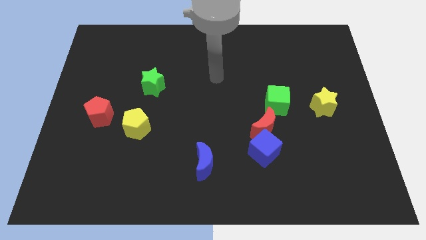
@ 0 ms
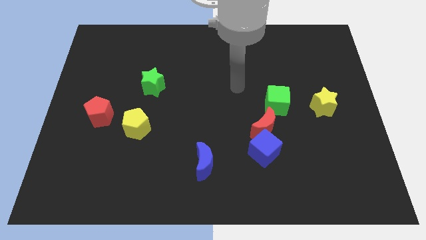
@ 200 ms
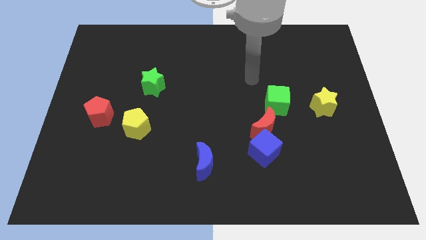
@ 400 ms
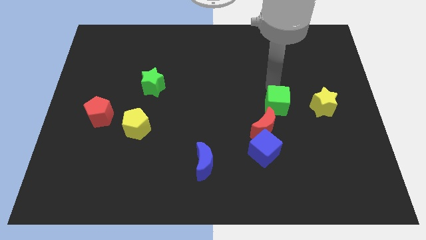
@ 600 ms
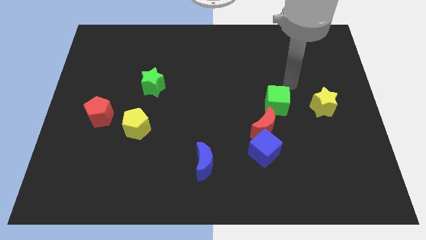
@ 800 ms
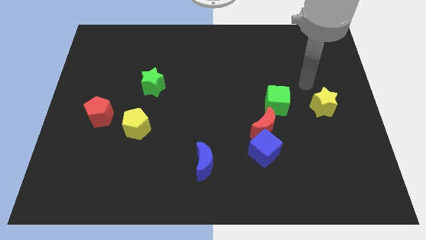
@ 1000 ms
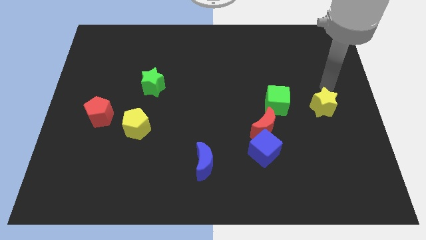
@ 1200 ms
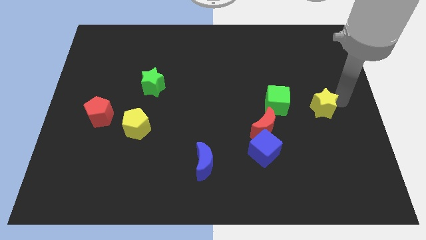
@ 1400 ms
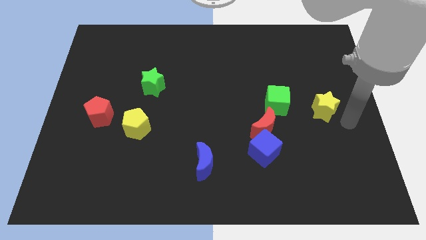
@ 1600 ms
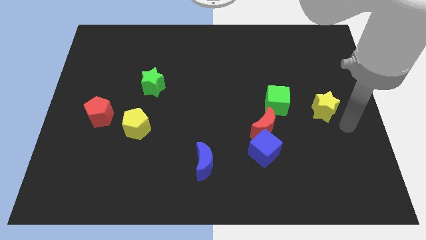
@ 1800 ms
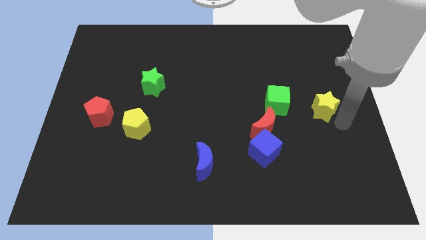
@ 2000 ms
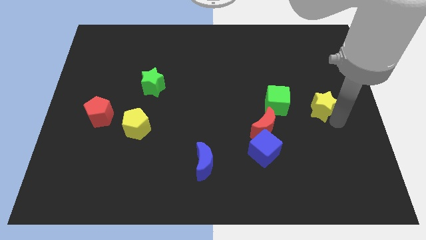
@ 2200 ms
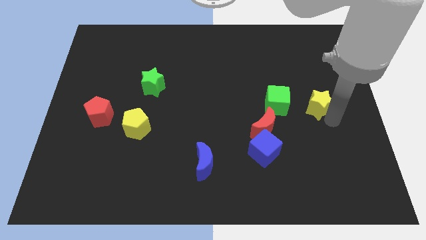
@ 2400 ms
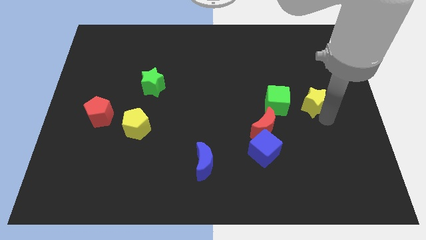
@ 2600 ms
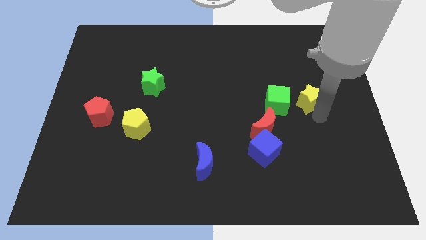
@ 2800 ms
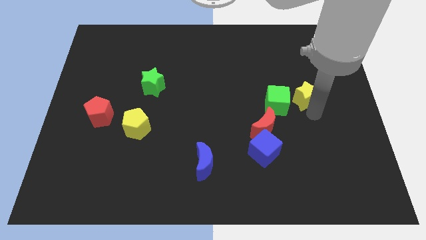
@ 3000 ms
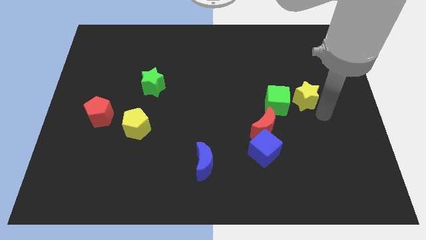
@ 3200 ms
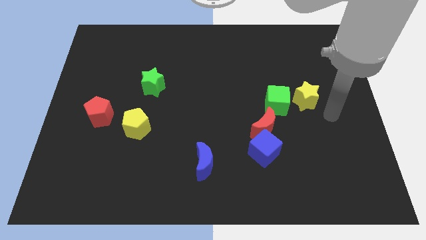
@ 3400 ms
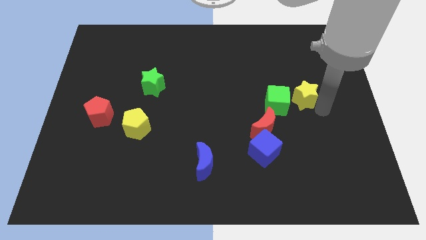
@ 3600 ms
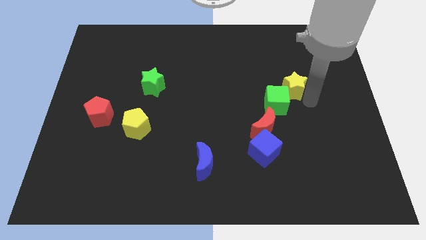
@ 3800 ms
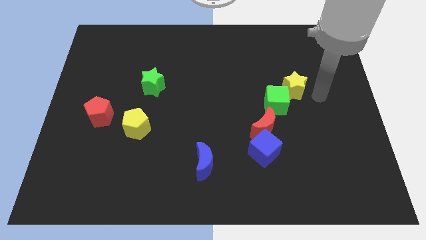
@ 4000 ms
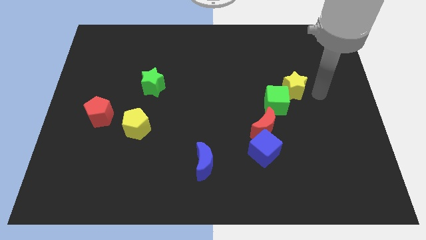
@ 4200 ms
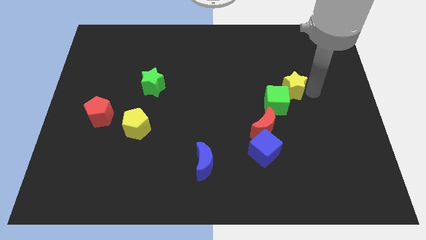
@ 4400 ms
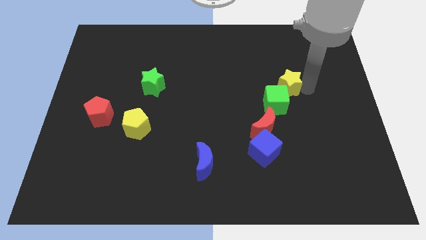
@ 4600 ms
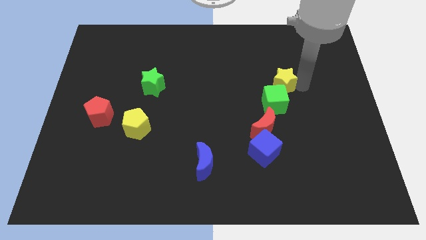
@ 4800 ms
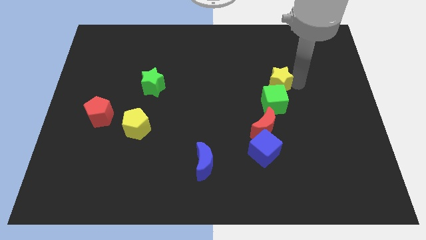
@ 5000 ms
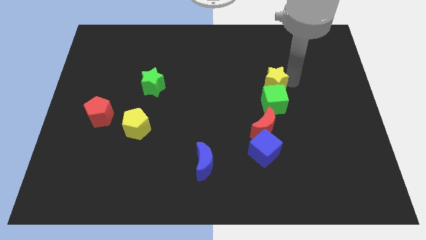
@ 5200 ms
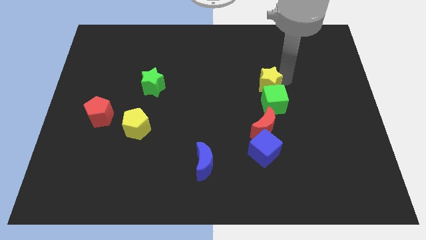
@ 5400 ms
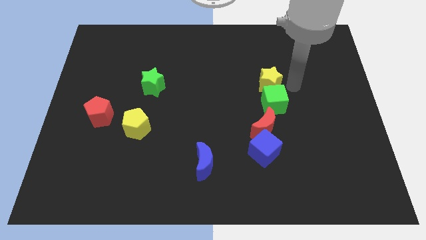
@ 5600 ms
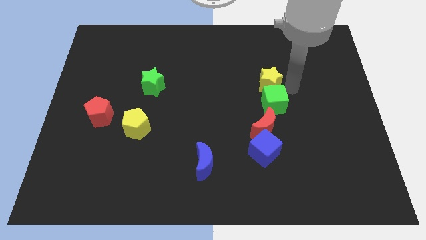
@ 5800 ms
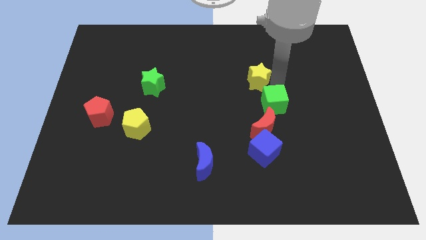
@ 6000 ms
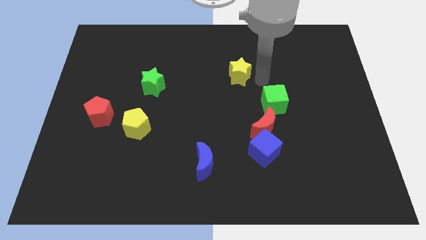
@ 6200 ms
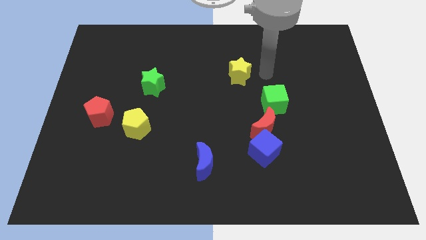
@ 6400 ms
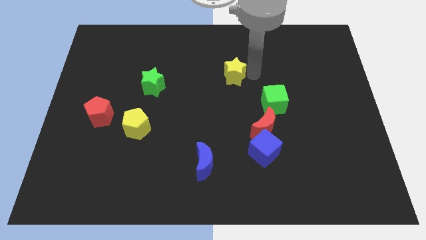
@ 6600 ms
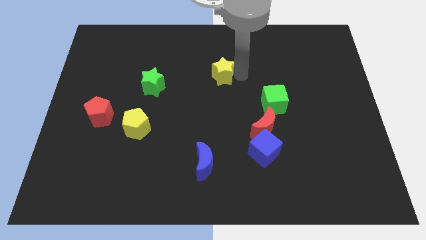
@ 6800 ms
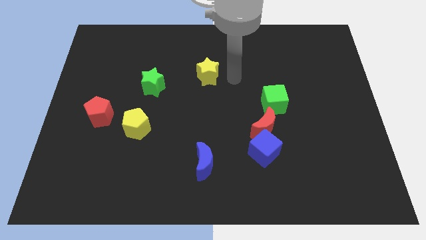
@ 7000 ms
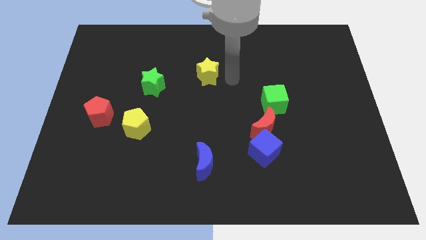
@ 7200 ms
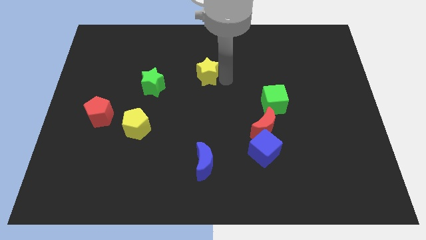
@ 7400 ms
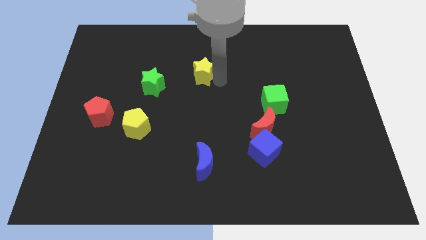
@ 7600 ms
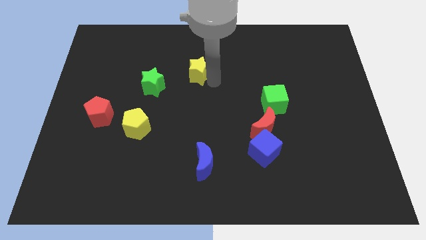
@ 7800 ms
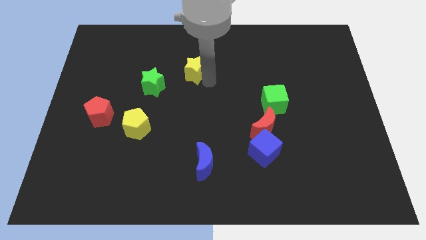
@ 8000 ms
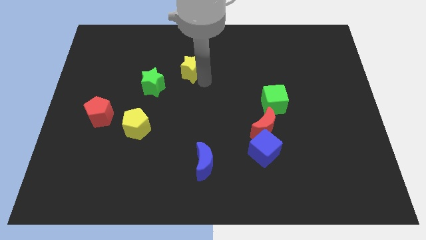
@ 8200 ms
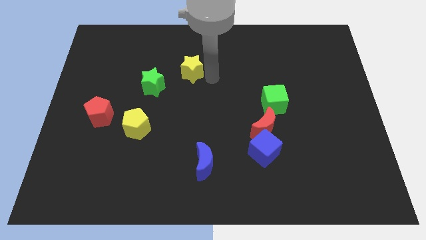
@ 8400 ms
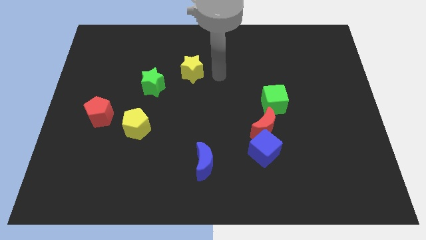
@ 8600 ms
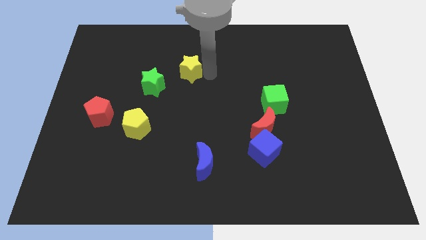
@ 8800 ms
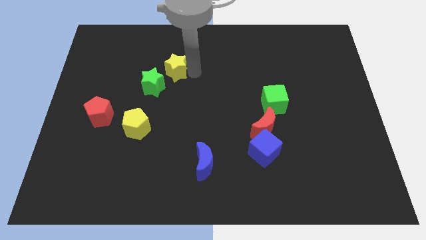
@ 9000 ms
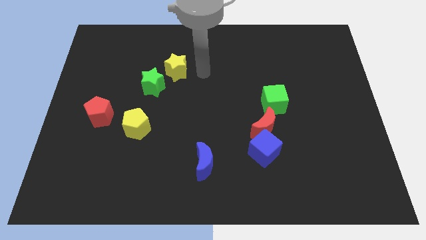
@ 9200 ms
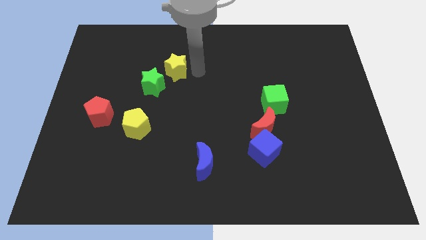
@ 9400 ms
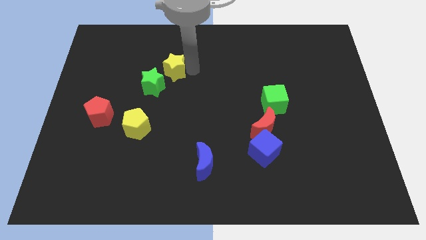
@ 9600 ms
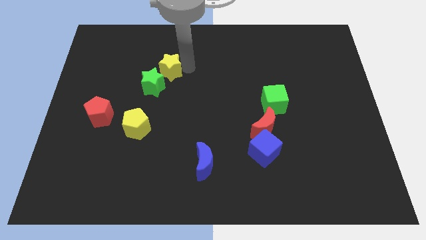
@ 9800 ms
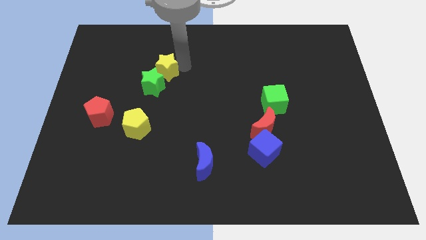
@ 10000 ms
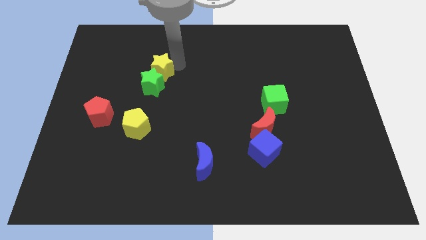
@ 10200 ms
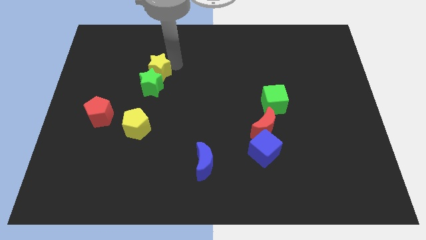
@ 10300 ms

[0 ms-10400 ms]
put the yellow star diagonally up and to the left of the green star

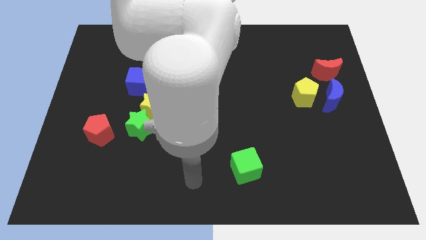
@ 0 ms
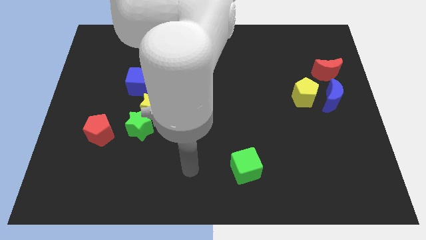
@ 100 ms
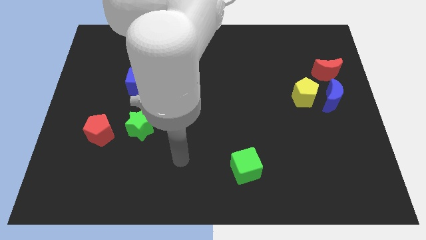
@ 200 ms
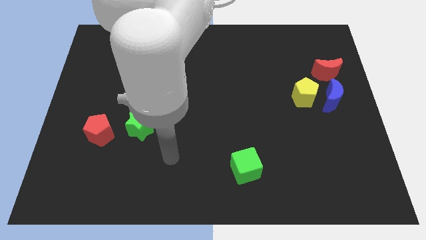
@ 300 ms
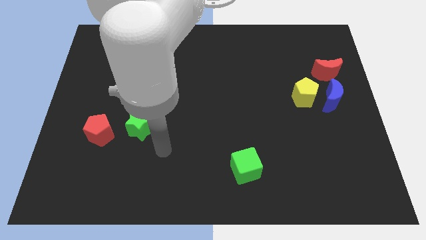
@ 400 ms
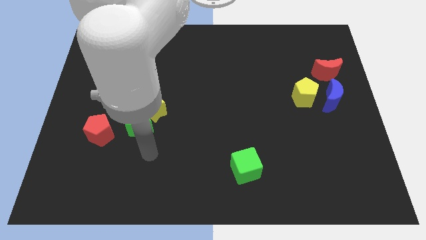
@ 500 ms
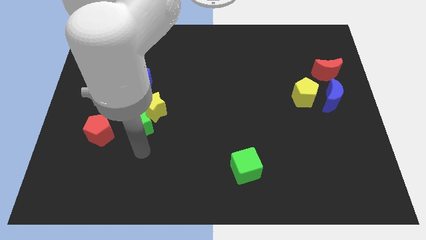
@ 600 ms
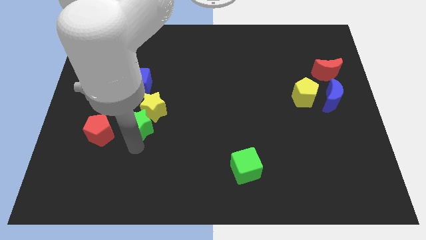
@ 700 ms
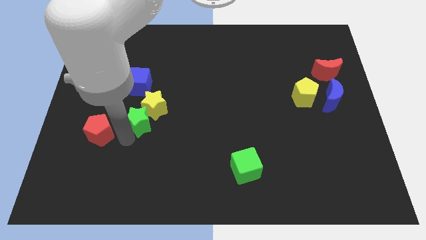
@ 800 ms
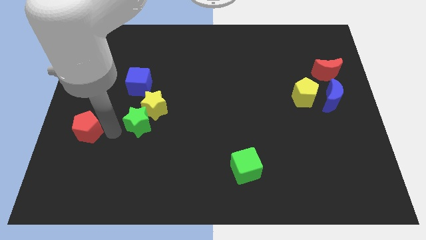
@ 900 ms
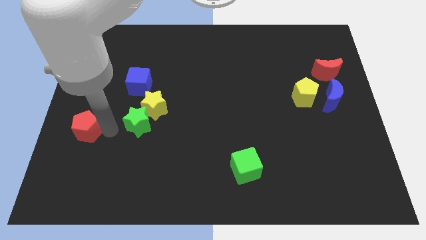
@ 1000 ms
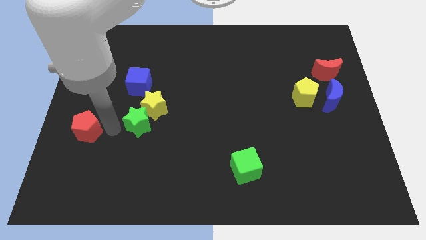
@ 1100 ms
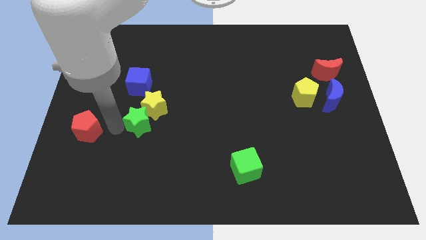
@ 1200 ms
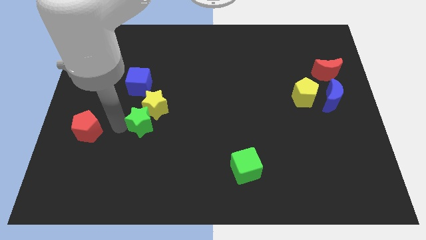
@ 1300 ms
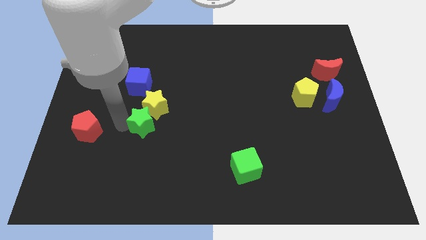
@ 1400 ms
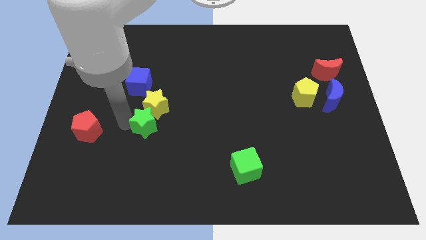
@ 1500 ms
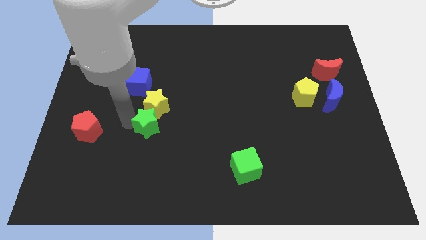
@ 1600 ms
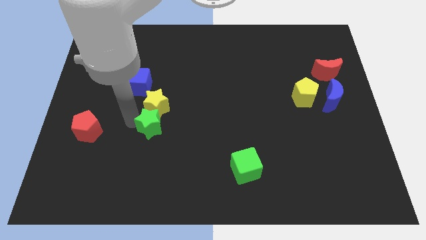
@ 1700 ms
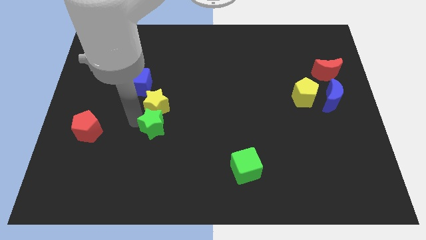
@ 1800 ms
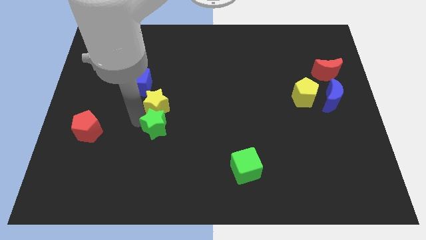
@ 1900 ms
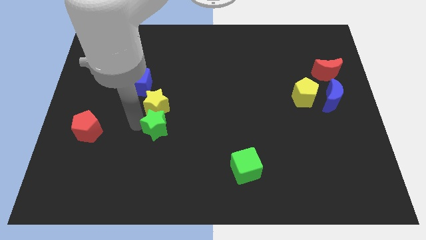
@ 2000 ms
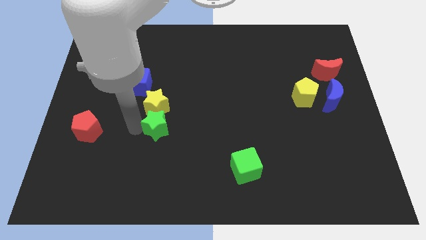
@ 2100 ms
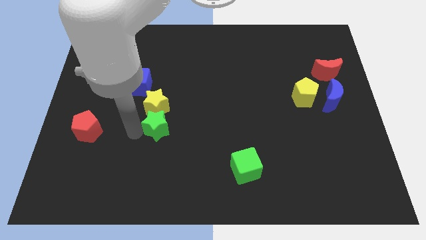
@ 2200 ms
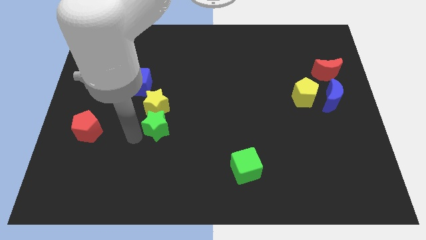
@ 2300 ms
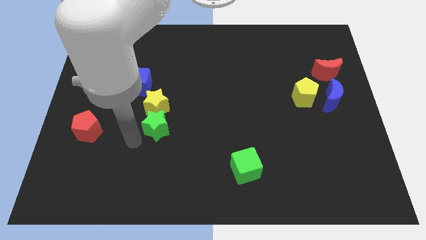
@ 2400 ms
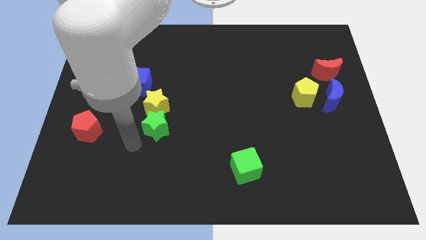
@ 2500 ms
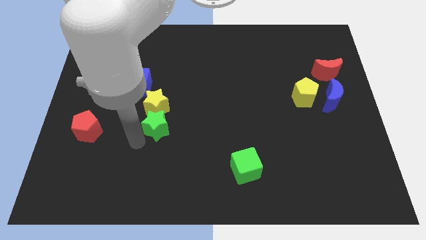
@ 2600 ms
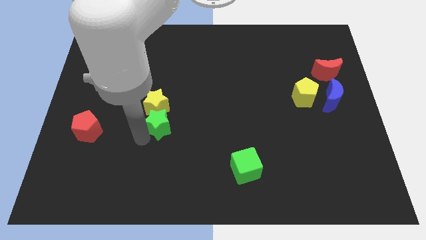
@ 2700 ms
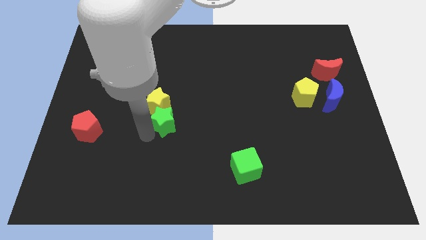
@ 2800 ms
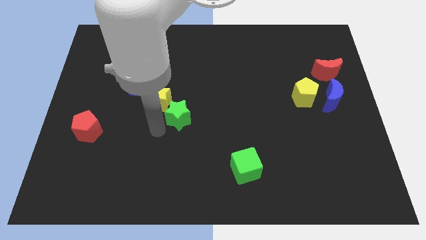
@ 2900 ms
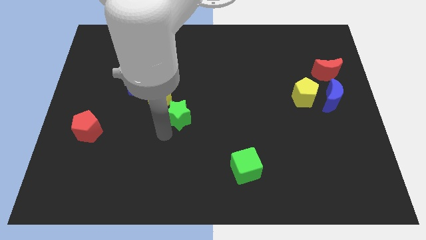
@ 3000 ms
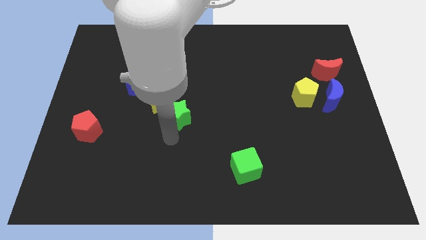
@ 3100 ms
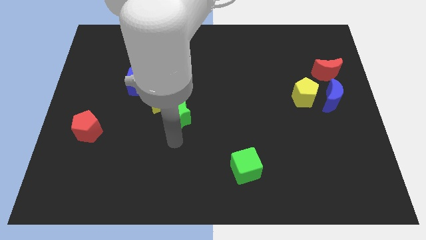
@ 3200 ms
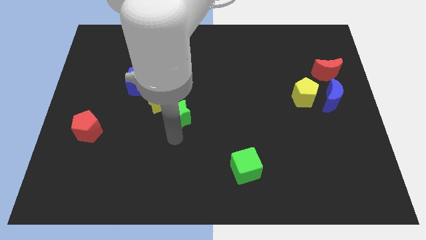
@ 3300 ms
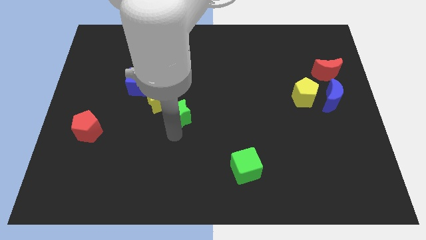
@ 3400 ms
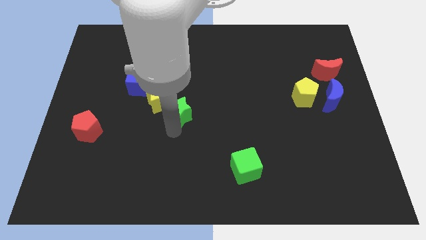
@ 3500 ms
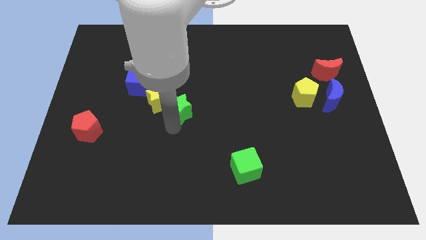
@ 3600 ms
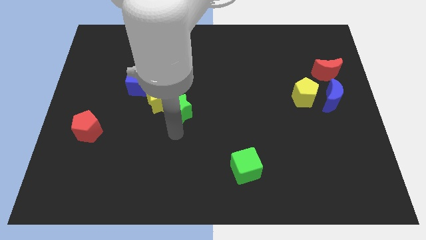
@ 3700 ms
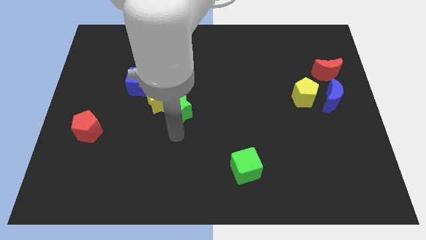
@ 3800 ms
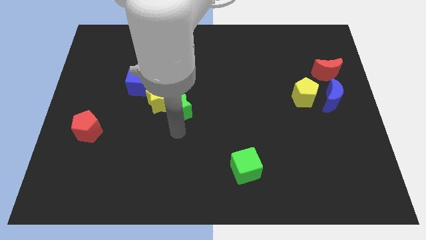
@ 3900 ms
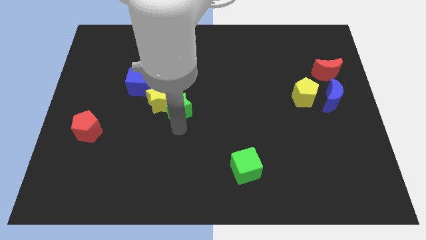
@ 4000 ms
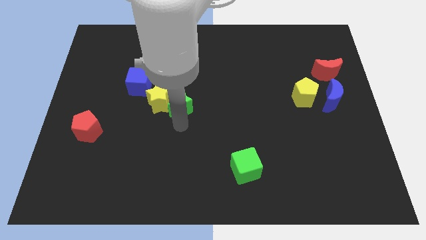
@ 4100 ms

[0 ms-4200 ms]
push the green star to the top right side of the yellow star
